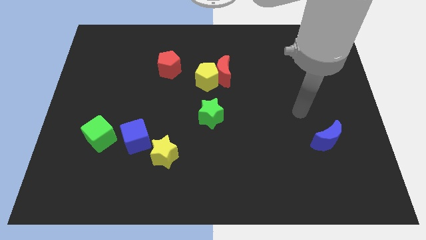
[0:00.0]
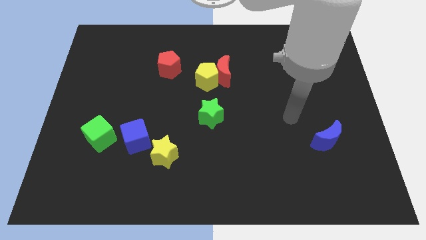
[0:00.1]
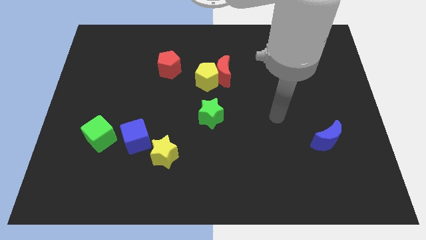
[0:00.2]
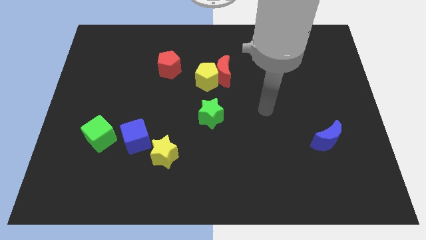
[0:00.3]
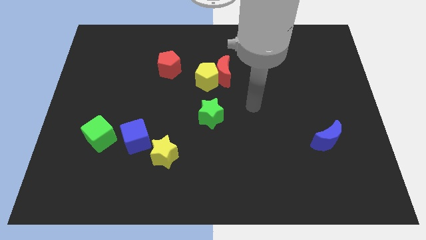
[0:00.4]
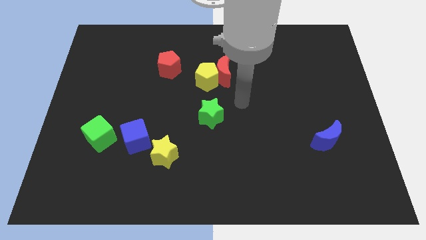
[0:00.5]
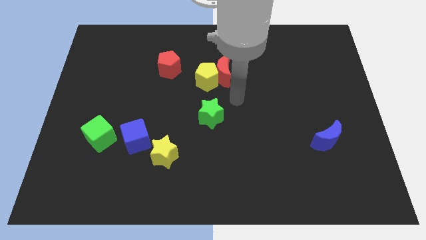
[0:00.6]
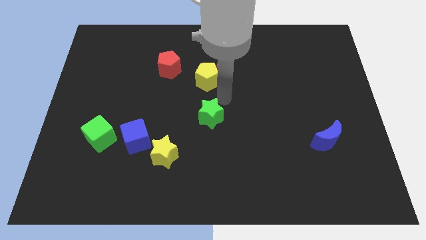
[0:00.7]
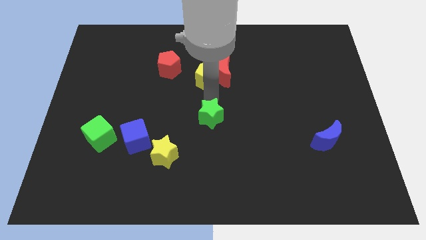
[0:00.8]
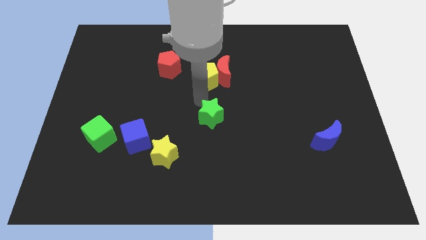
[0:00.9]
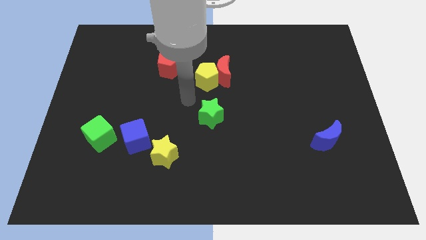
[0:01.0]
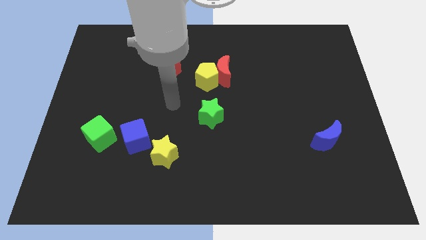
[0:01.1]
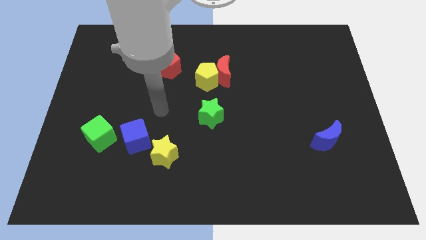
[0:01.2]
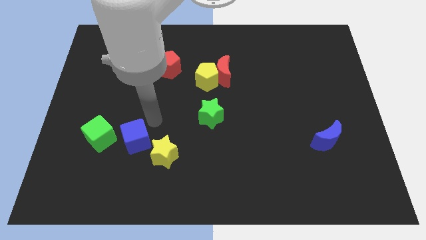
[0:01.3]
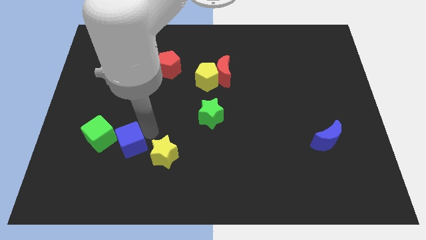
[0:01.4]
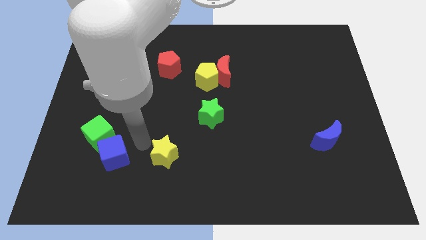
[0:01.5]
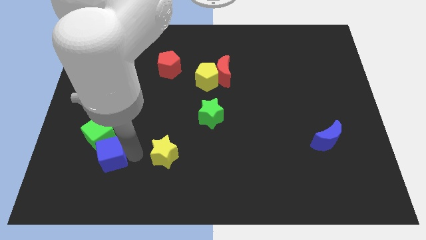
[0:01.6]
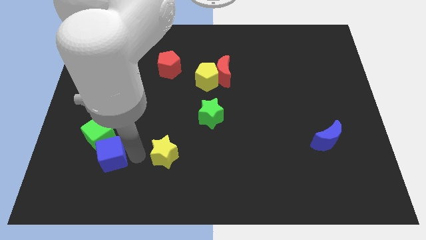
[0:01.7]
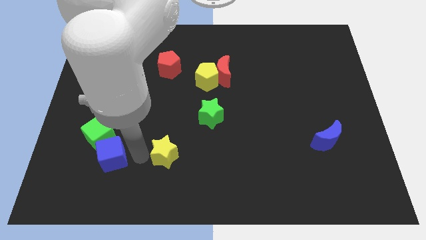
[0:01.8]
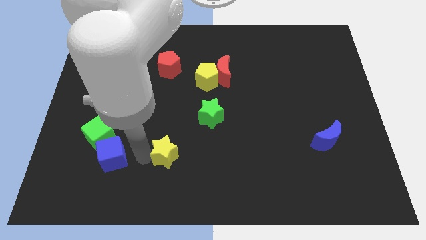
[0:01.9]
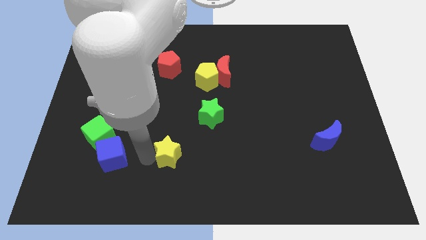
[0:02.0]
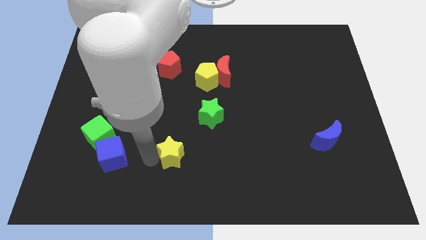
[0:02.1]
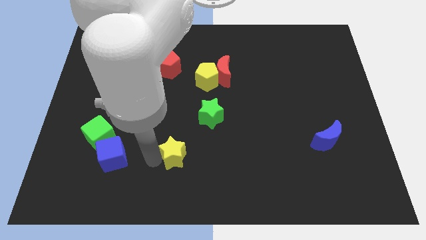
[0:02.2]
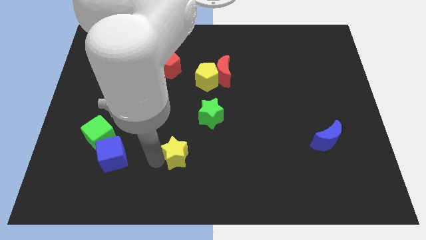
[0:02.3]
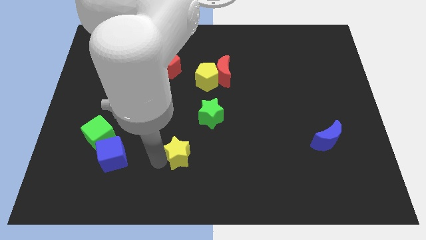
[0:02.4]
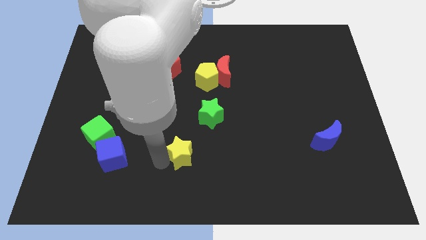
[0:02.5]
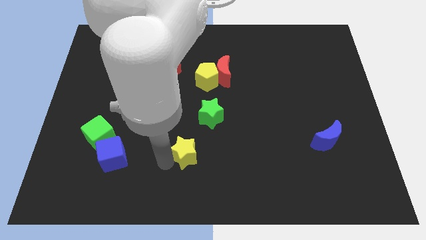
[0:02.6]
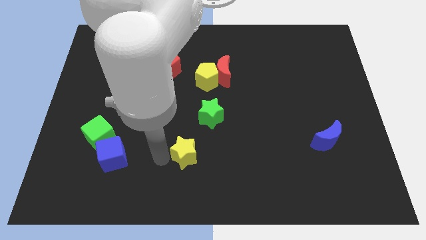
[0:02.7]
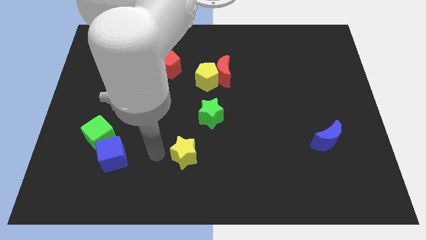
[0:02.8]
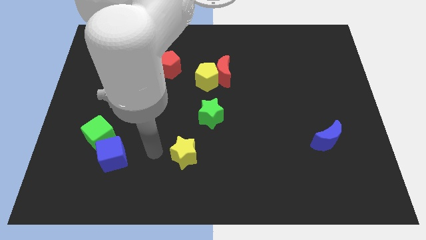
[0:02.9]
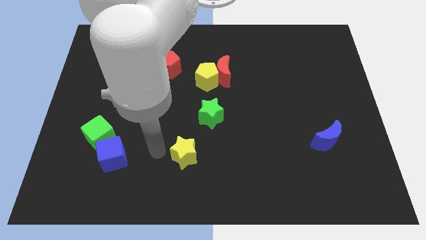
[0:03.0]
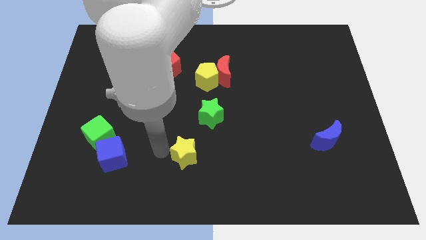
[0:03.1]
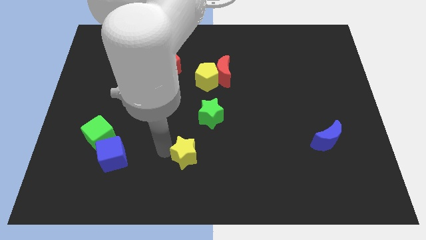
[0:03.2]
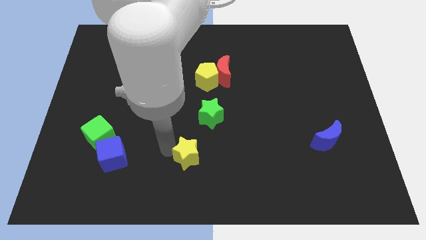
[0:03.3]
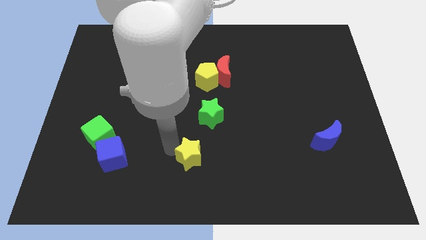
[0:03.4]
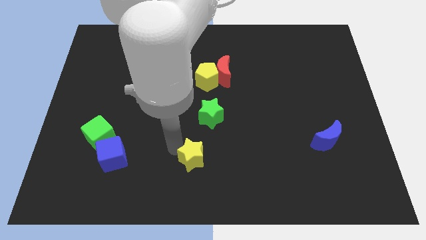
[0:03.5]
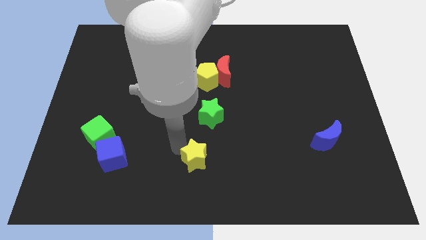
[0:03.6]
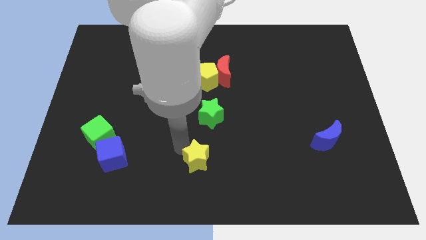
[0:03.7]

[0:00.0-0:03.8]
slide the yellow star right a little

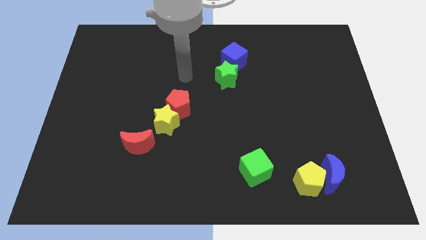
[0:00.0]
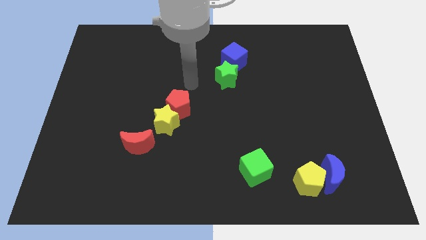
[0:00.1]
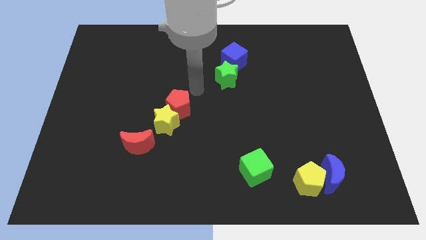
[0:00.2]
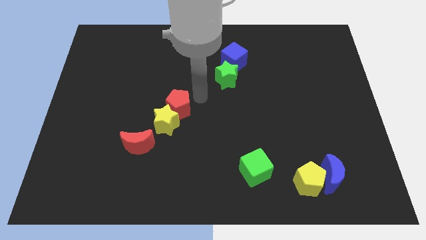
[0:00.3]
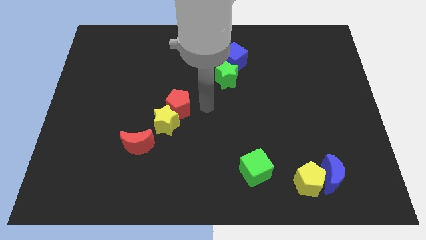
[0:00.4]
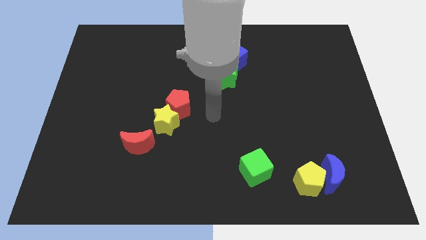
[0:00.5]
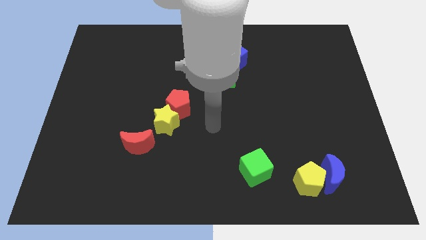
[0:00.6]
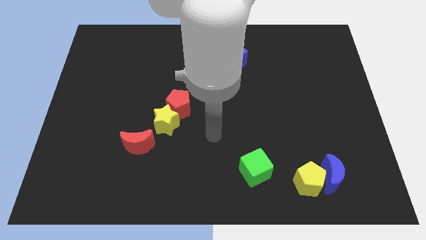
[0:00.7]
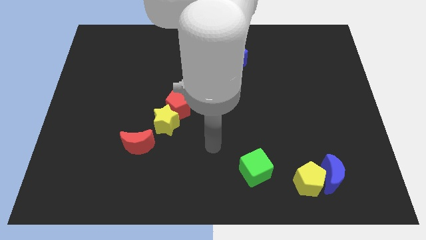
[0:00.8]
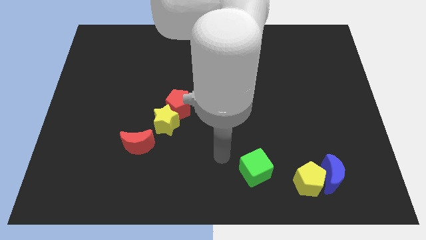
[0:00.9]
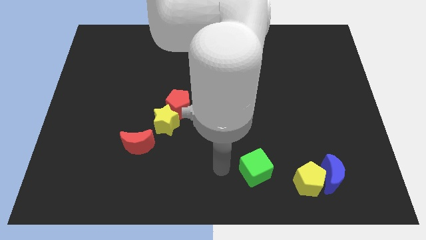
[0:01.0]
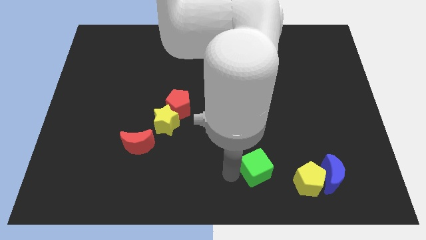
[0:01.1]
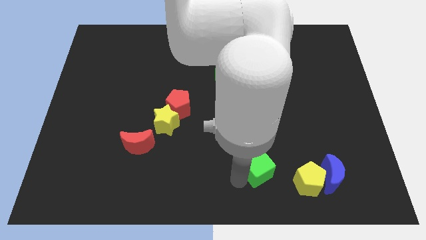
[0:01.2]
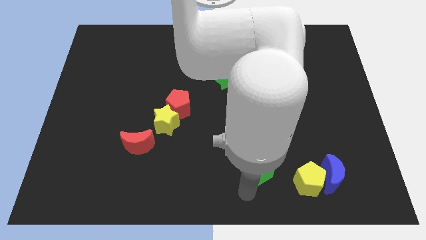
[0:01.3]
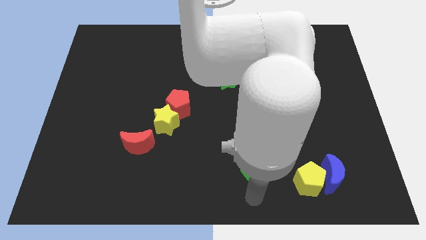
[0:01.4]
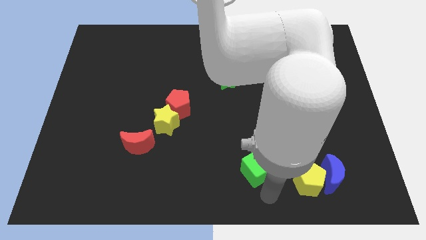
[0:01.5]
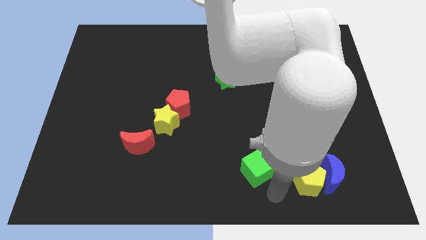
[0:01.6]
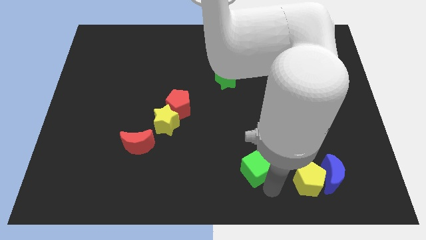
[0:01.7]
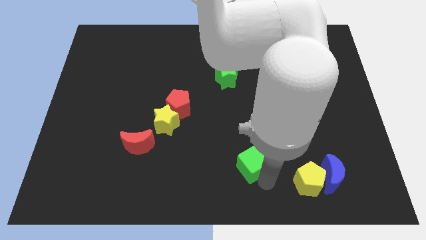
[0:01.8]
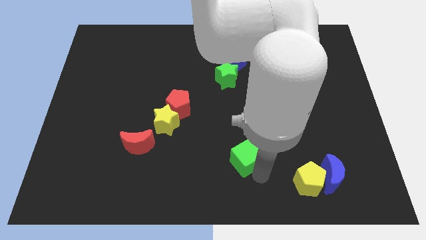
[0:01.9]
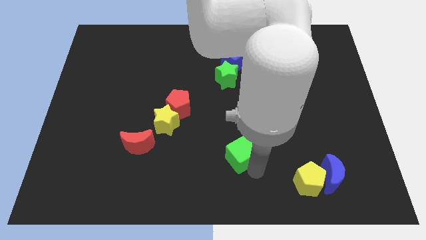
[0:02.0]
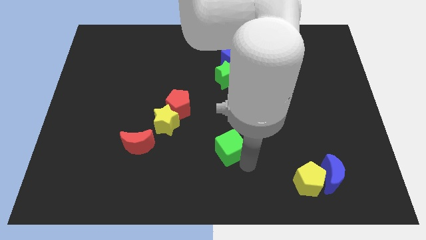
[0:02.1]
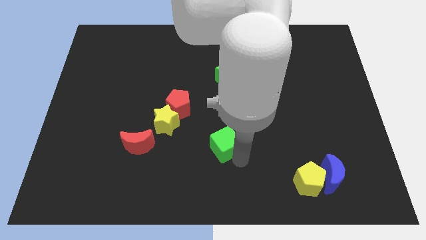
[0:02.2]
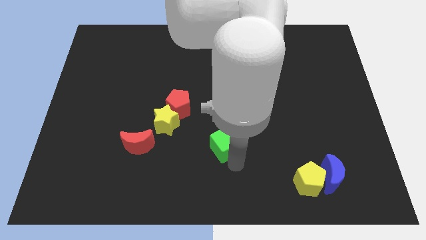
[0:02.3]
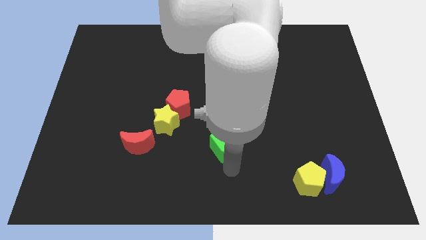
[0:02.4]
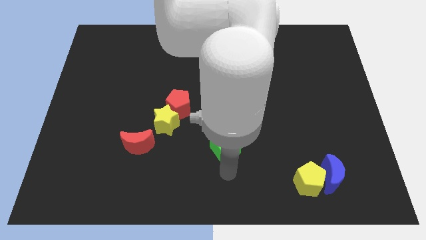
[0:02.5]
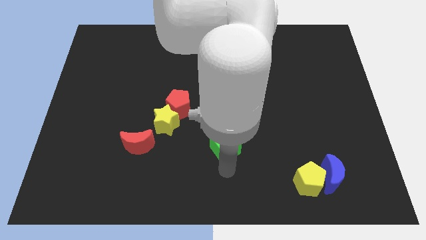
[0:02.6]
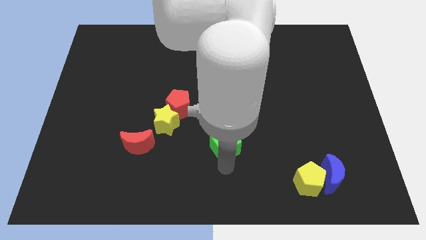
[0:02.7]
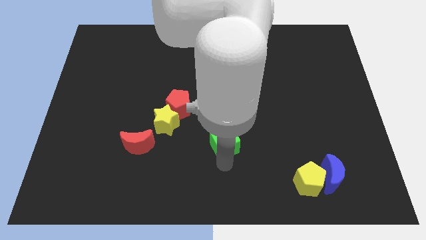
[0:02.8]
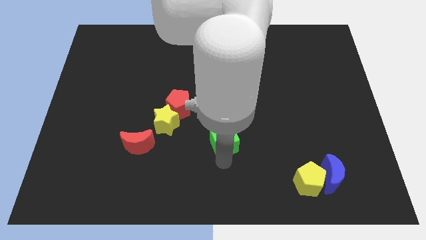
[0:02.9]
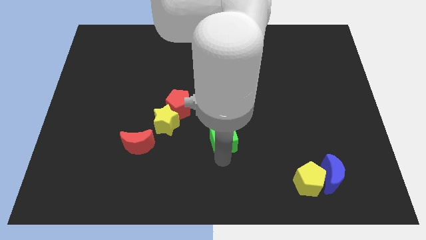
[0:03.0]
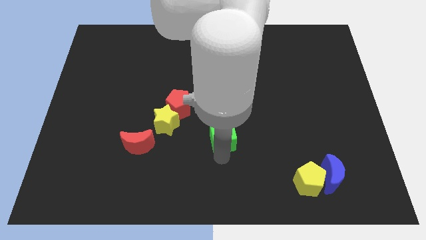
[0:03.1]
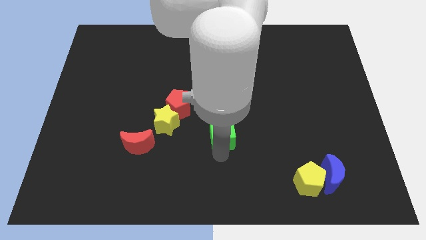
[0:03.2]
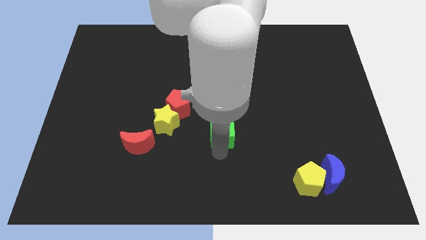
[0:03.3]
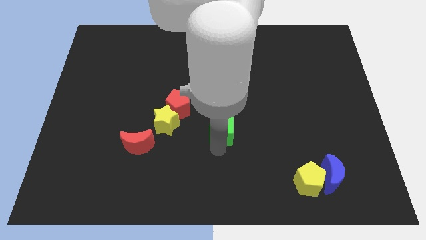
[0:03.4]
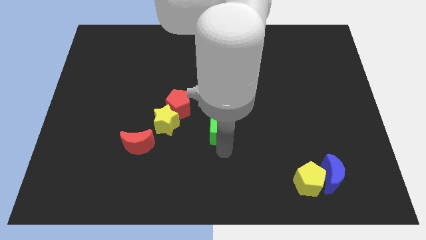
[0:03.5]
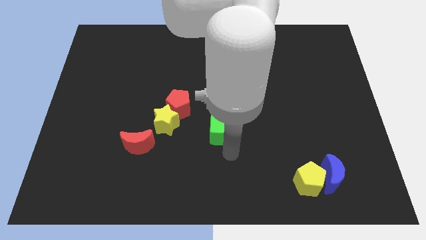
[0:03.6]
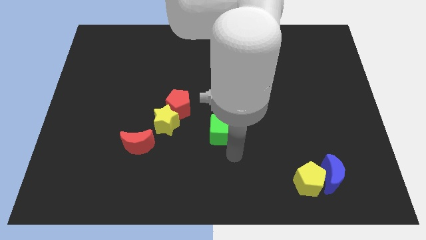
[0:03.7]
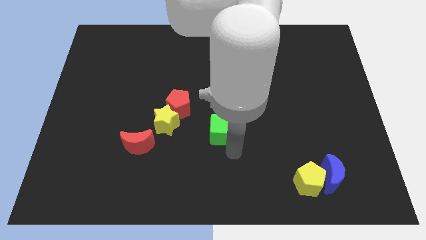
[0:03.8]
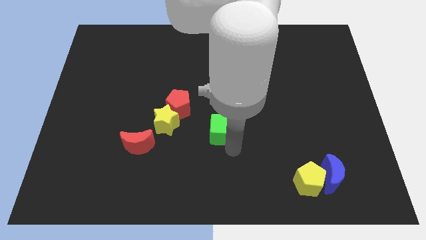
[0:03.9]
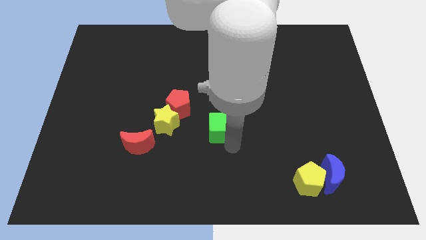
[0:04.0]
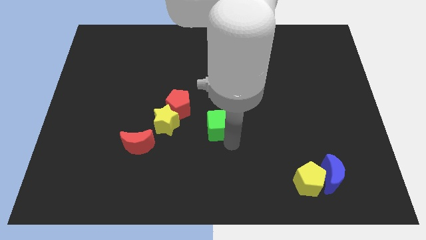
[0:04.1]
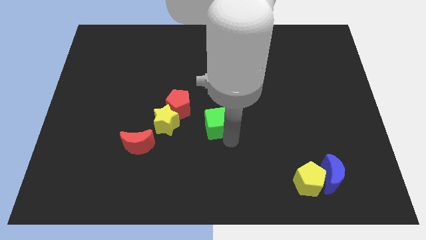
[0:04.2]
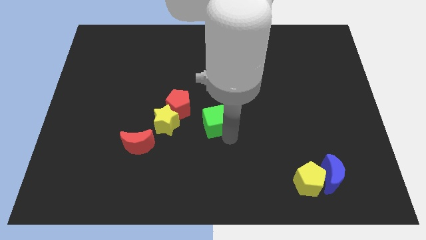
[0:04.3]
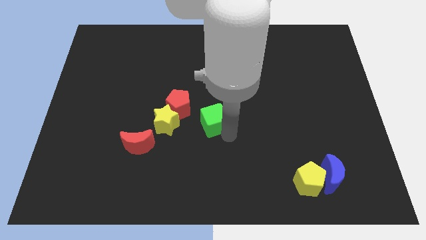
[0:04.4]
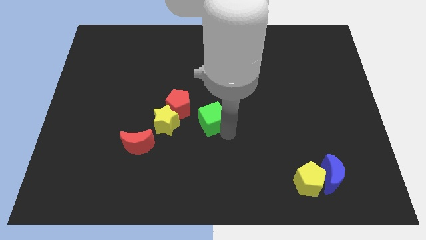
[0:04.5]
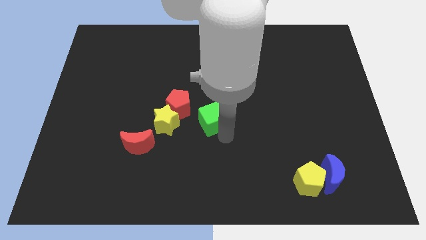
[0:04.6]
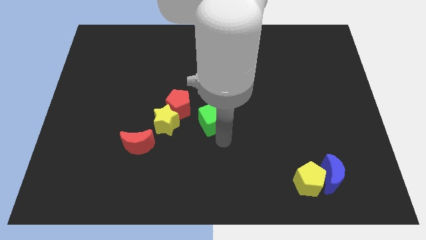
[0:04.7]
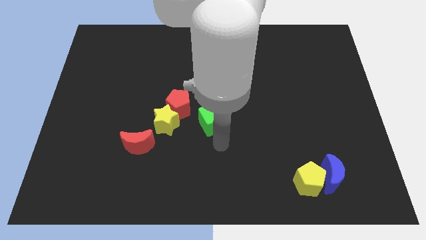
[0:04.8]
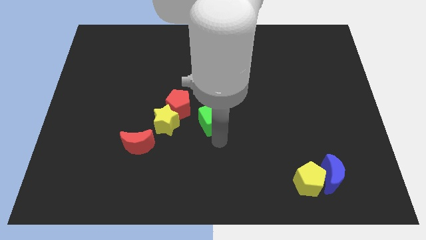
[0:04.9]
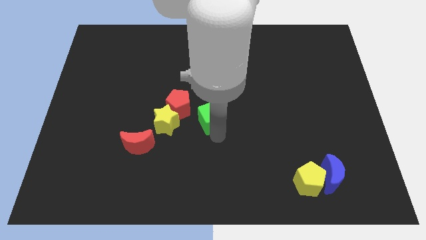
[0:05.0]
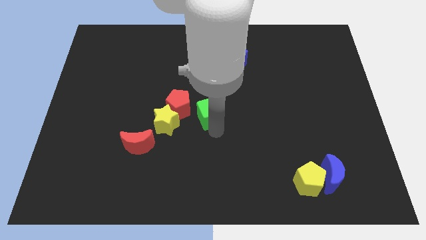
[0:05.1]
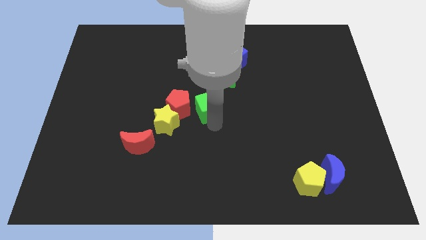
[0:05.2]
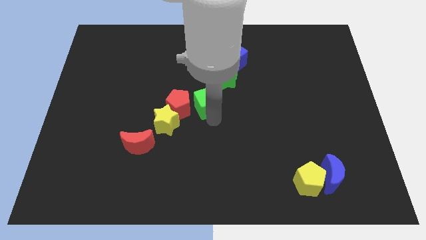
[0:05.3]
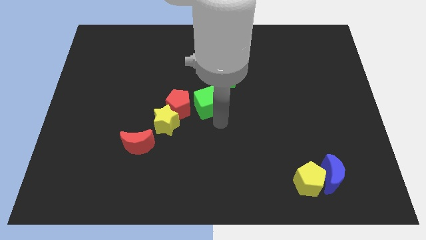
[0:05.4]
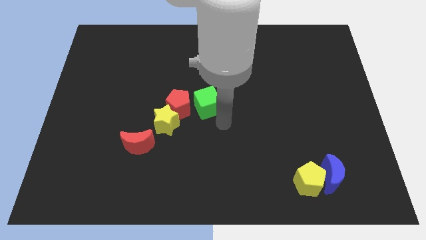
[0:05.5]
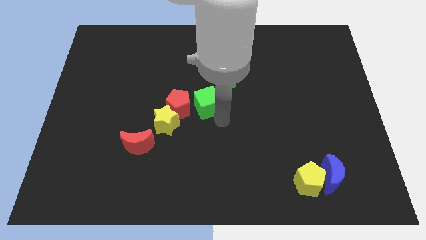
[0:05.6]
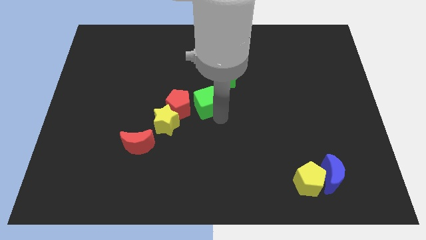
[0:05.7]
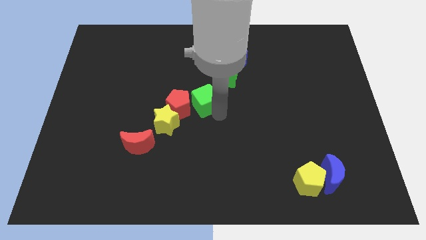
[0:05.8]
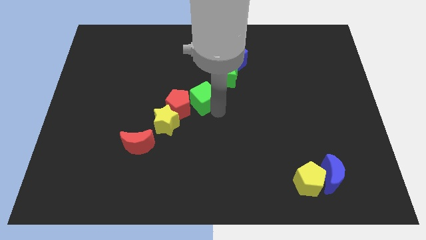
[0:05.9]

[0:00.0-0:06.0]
slide the green cube diagonally up and to the left
